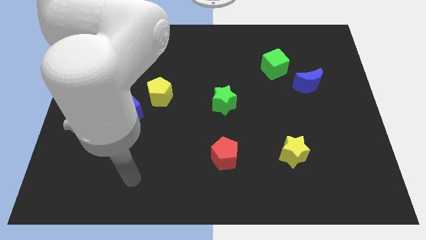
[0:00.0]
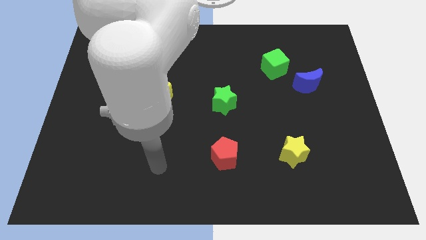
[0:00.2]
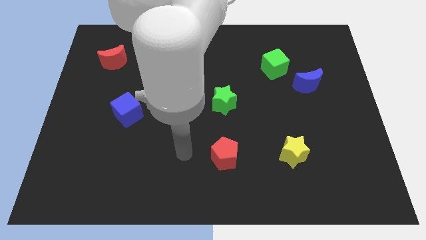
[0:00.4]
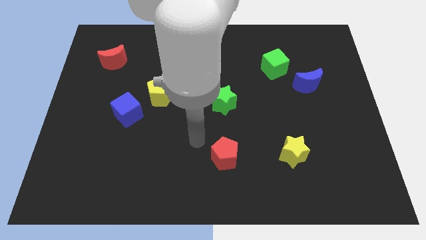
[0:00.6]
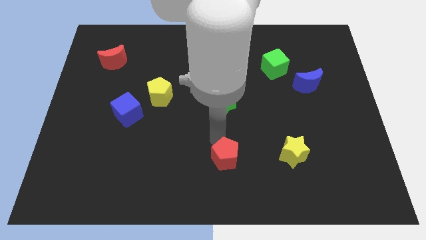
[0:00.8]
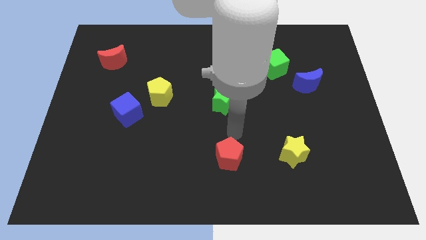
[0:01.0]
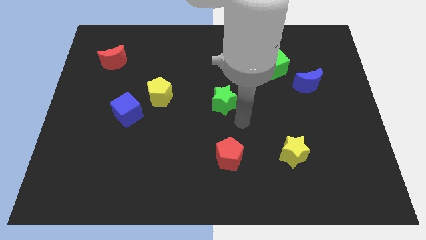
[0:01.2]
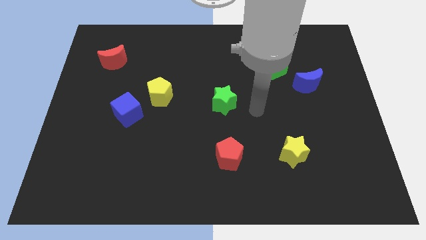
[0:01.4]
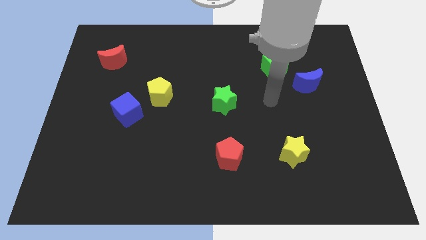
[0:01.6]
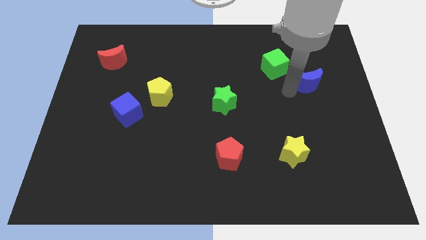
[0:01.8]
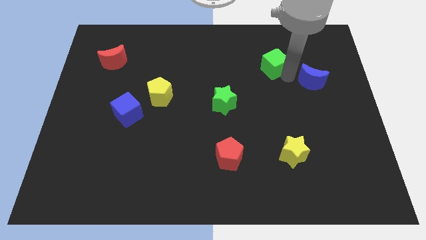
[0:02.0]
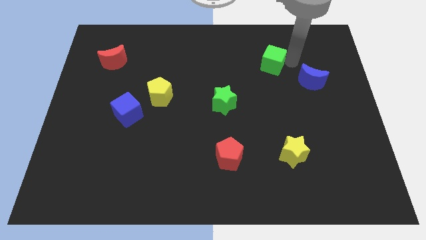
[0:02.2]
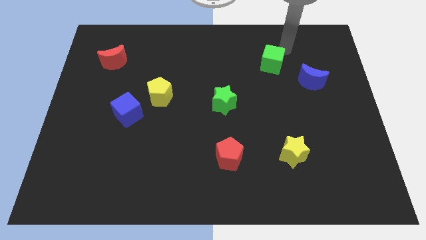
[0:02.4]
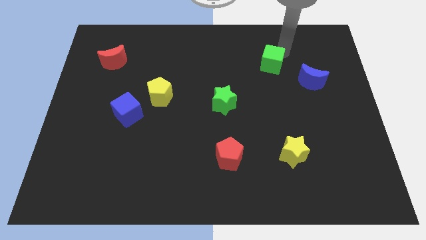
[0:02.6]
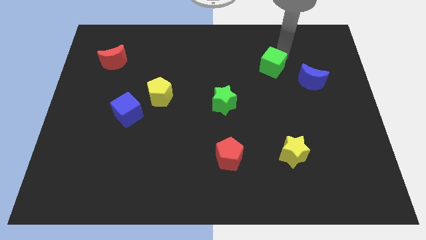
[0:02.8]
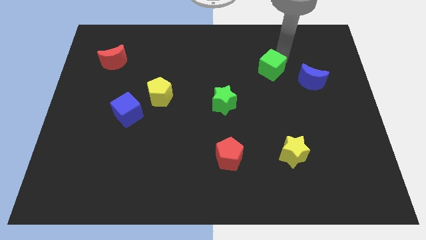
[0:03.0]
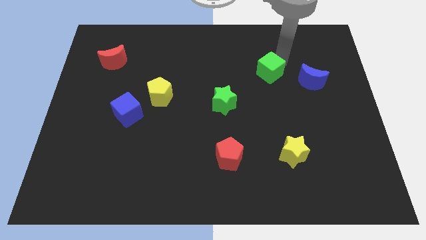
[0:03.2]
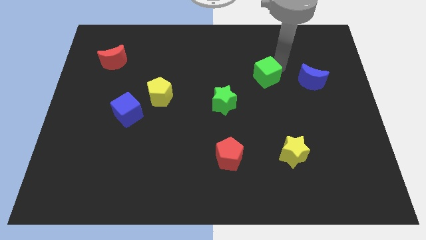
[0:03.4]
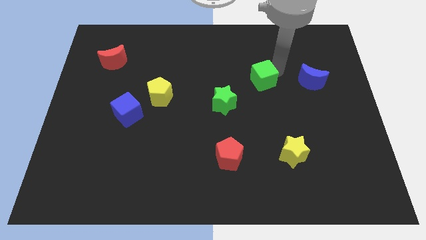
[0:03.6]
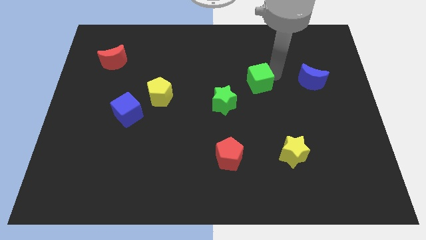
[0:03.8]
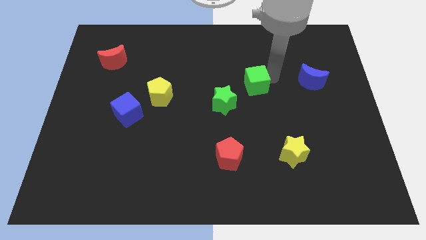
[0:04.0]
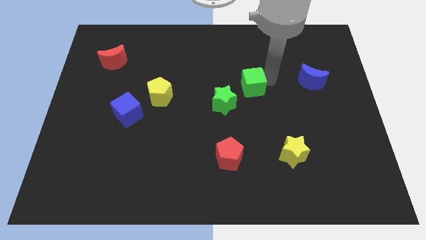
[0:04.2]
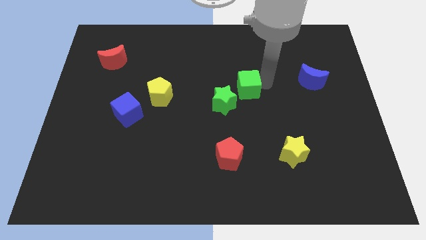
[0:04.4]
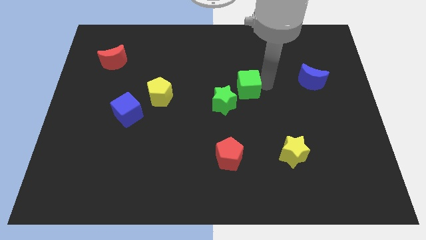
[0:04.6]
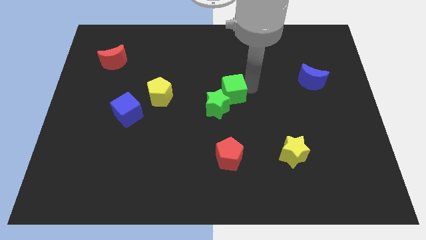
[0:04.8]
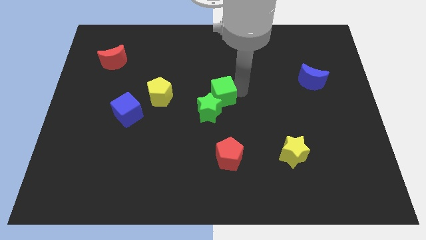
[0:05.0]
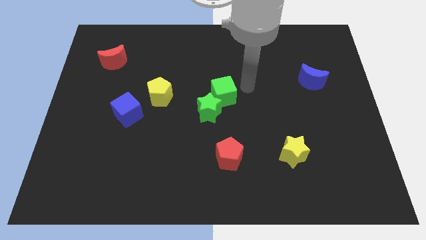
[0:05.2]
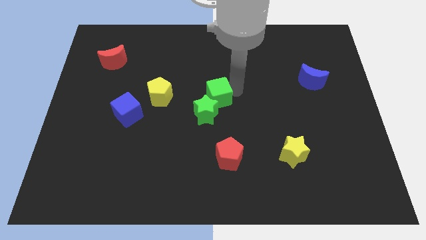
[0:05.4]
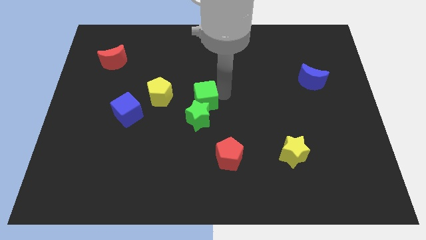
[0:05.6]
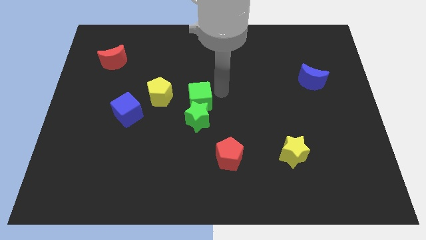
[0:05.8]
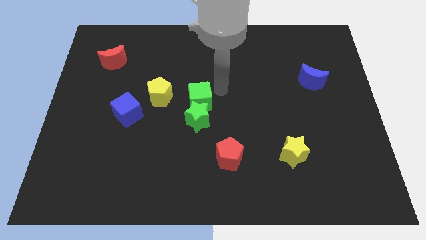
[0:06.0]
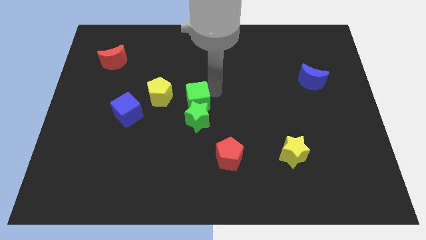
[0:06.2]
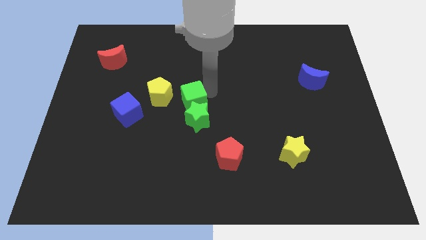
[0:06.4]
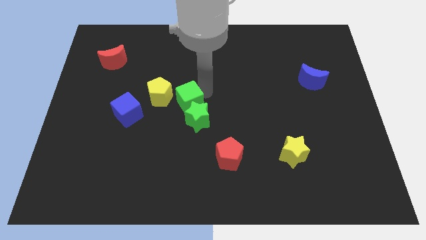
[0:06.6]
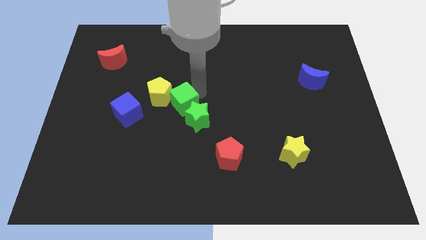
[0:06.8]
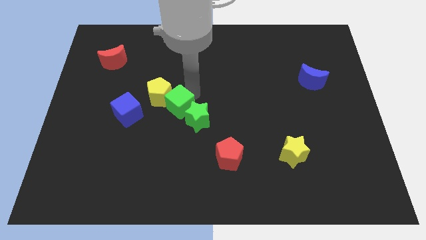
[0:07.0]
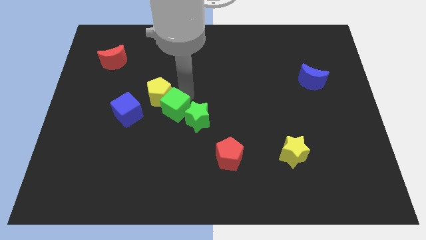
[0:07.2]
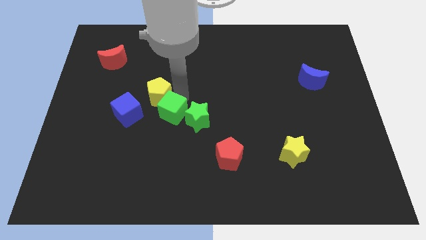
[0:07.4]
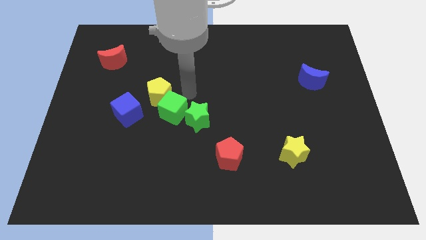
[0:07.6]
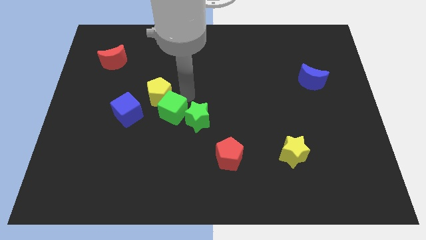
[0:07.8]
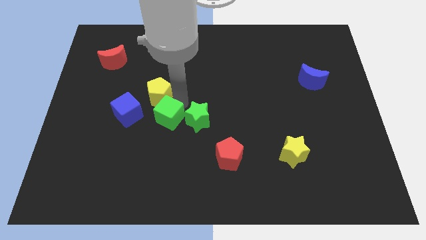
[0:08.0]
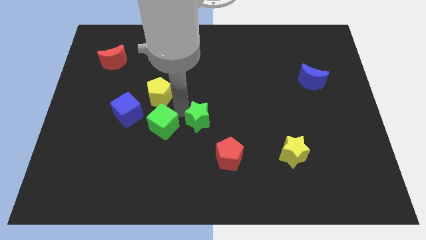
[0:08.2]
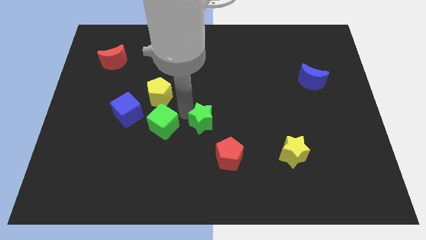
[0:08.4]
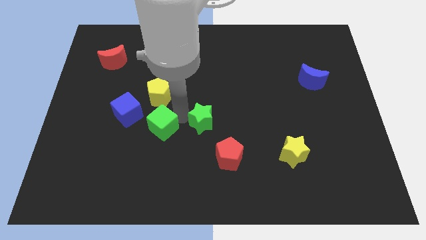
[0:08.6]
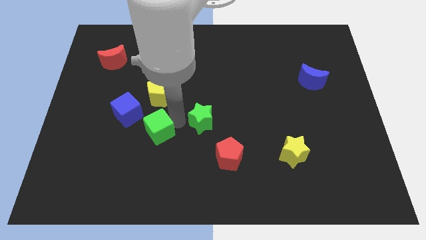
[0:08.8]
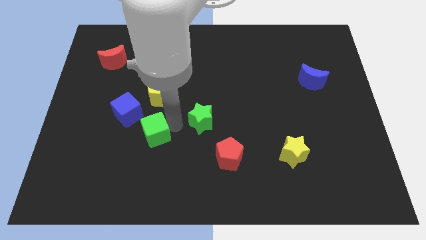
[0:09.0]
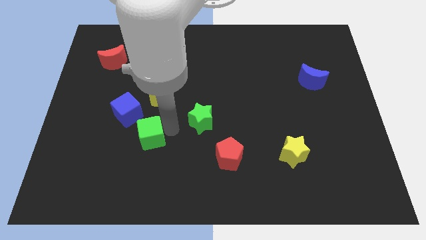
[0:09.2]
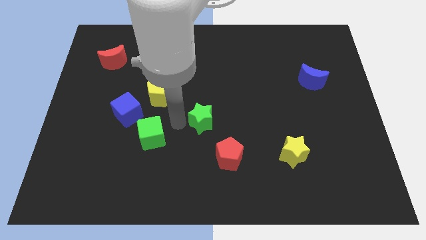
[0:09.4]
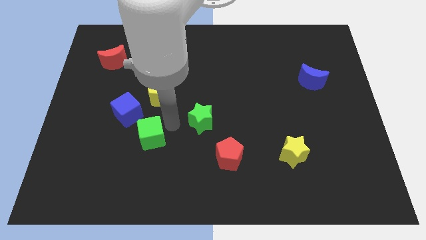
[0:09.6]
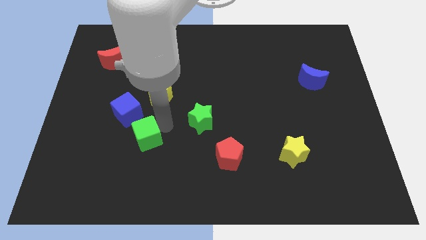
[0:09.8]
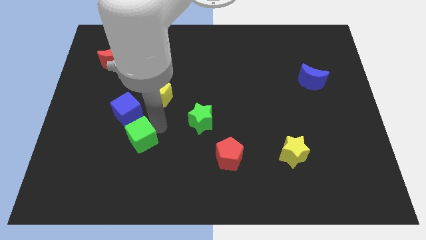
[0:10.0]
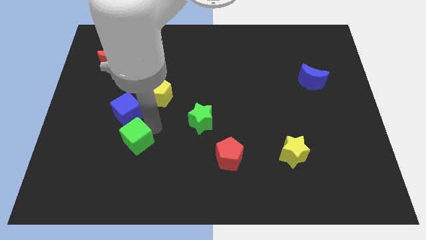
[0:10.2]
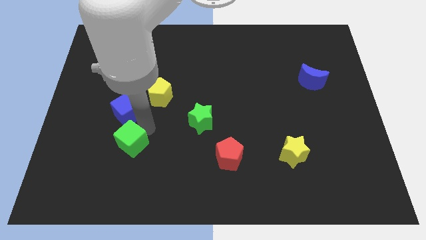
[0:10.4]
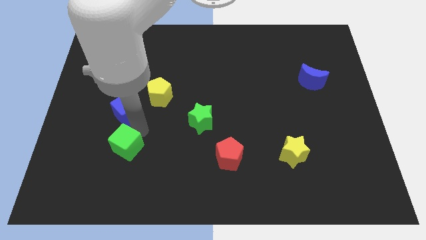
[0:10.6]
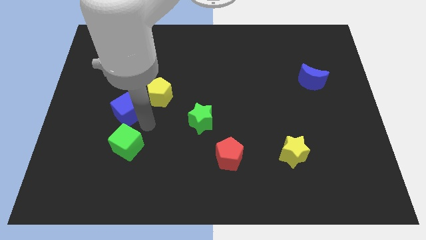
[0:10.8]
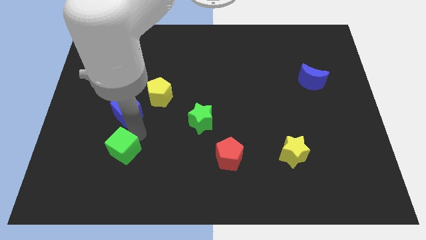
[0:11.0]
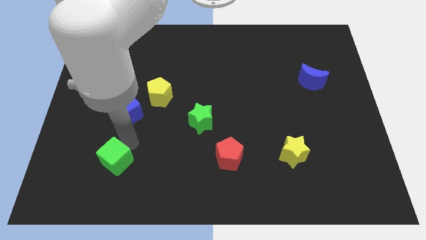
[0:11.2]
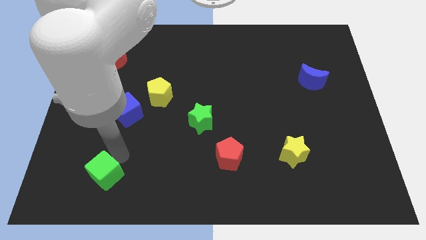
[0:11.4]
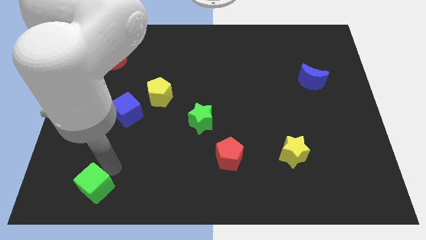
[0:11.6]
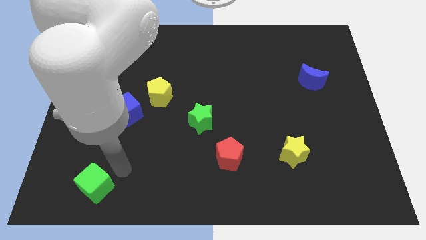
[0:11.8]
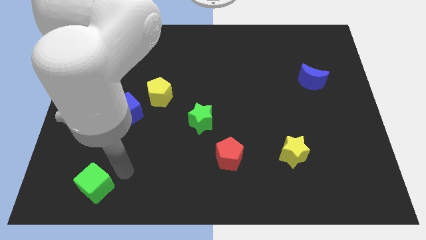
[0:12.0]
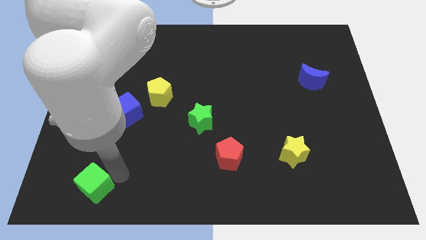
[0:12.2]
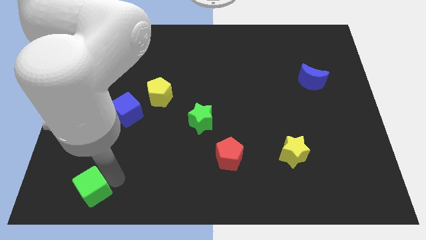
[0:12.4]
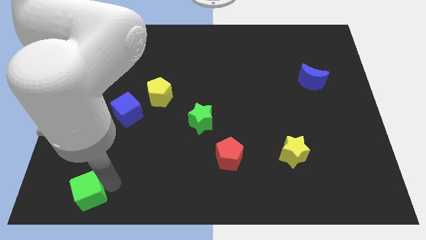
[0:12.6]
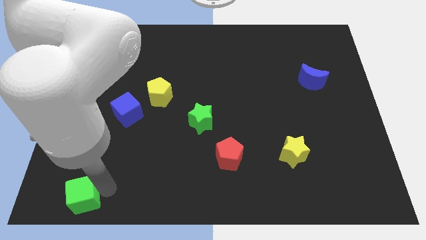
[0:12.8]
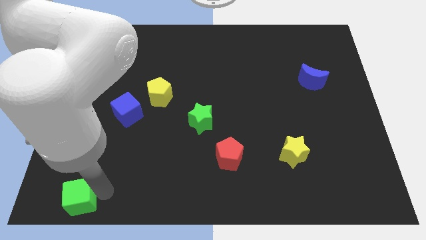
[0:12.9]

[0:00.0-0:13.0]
move the green cube to the bottom left of the board
